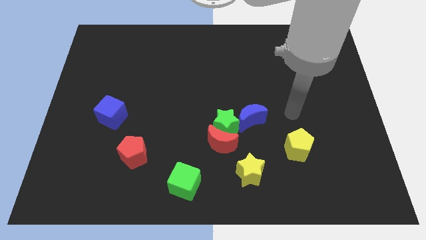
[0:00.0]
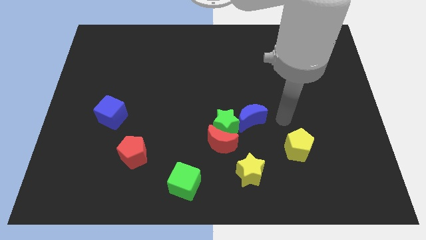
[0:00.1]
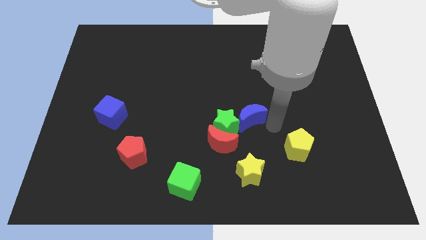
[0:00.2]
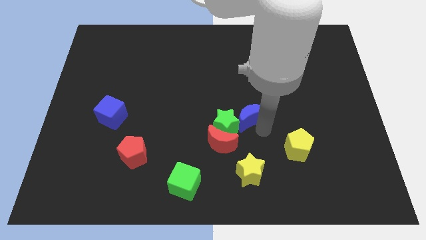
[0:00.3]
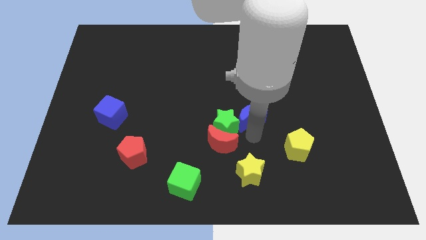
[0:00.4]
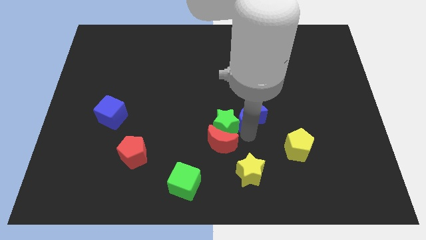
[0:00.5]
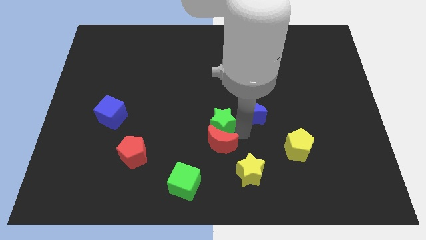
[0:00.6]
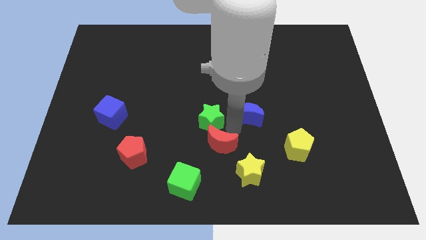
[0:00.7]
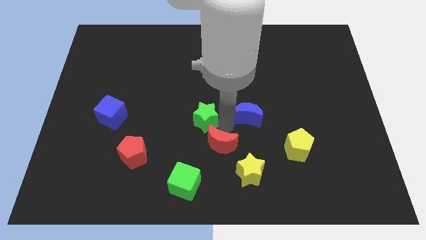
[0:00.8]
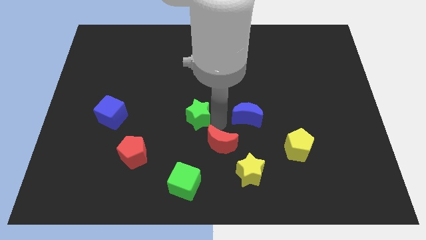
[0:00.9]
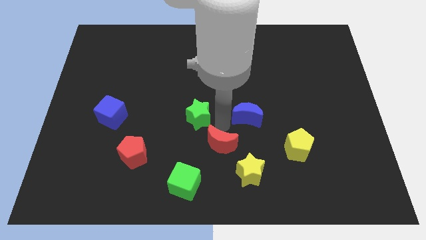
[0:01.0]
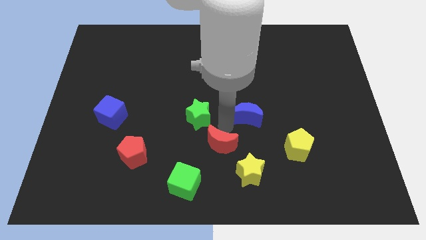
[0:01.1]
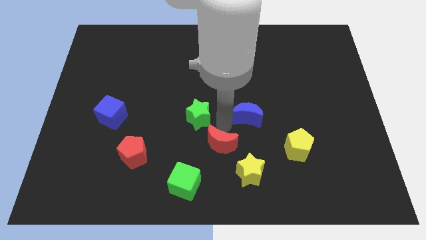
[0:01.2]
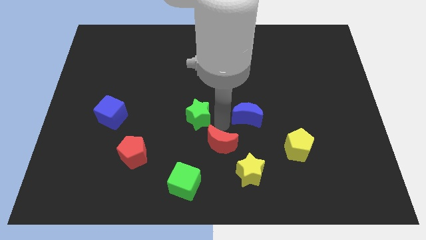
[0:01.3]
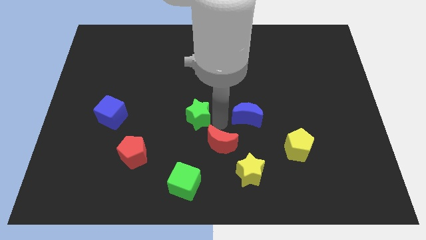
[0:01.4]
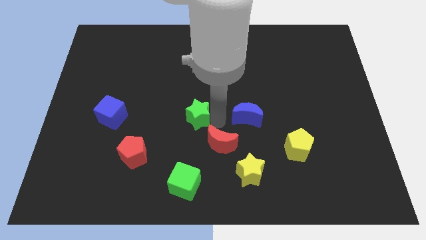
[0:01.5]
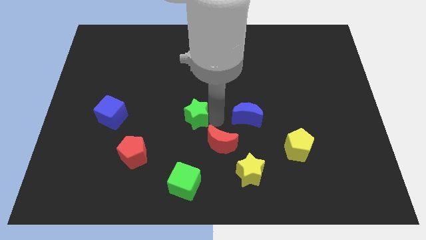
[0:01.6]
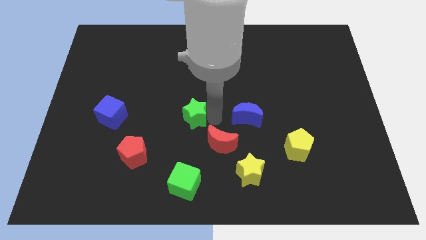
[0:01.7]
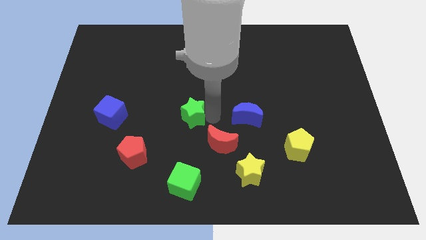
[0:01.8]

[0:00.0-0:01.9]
move the green star away from the red moon and blue moon

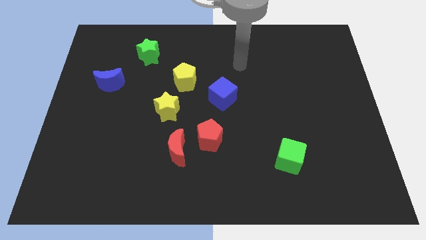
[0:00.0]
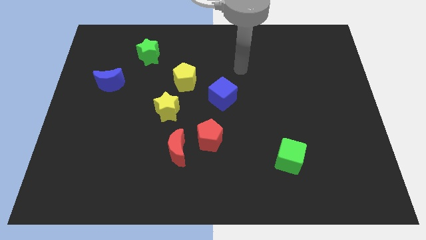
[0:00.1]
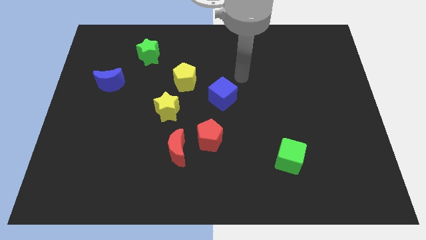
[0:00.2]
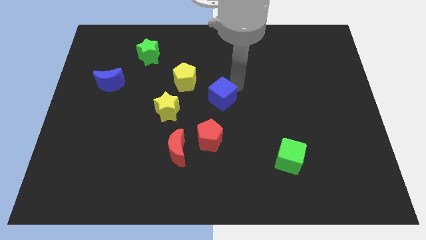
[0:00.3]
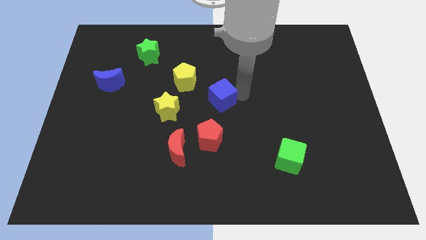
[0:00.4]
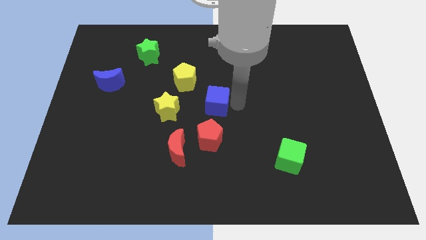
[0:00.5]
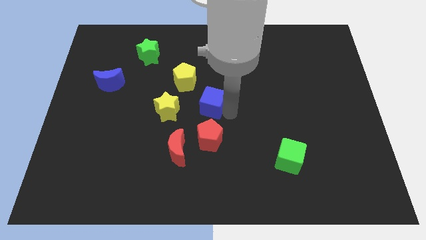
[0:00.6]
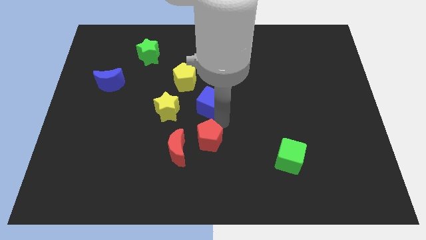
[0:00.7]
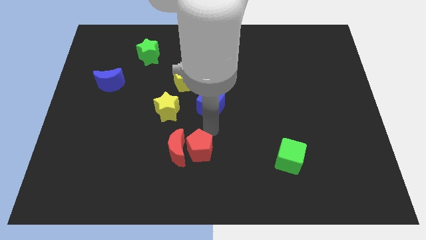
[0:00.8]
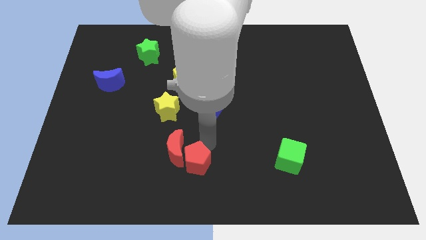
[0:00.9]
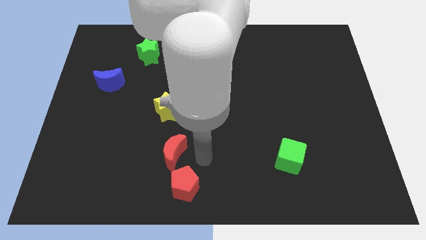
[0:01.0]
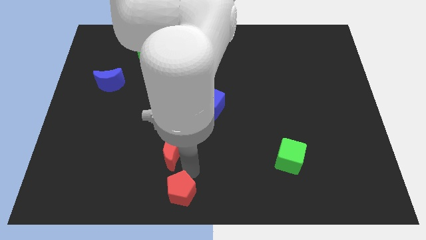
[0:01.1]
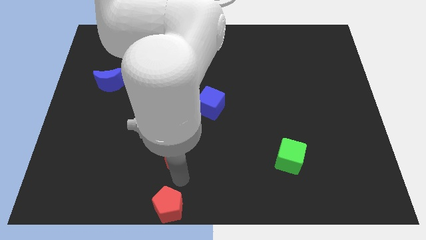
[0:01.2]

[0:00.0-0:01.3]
pull the red moon apart from the red pentagon

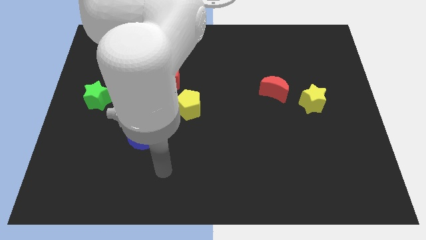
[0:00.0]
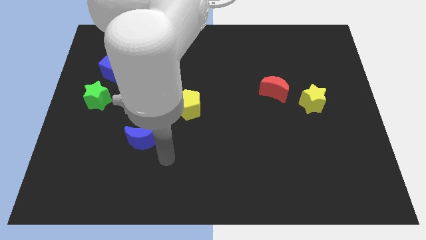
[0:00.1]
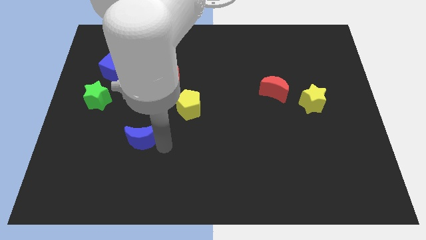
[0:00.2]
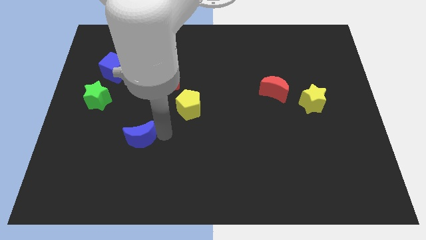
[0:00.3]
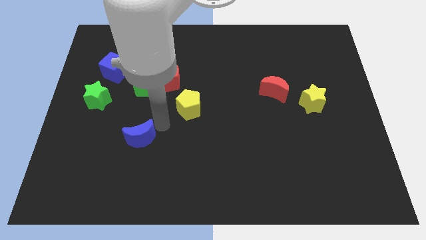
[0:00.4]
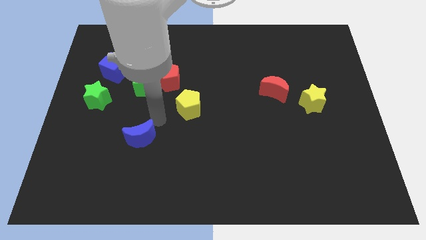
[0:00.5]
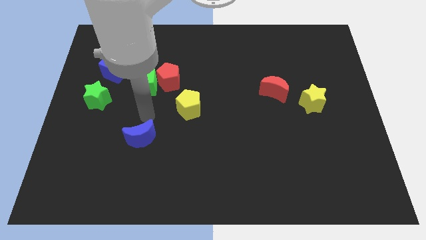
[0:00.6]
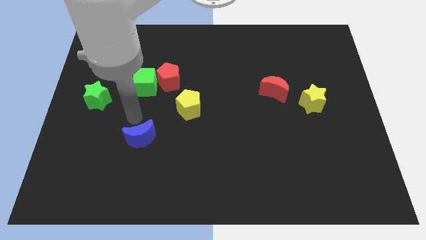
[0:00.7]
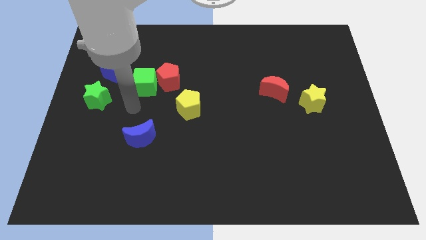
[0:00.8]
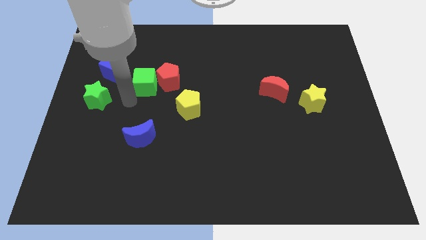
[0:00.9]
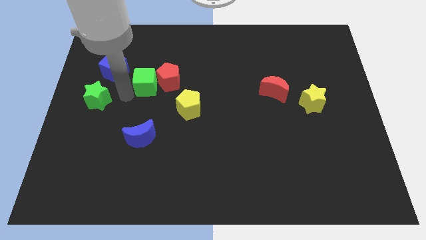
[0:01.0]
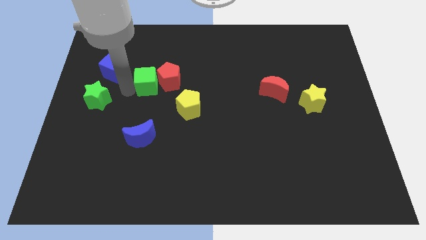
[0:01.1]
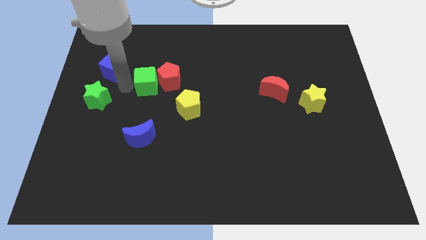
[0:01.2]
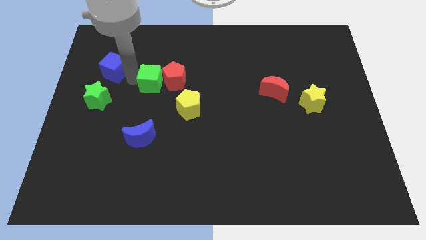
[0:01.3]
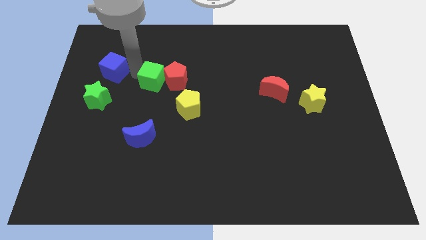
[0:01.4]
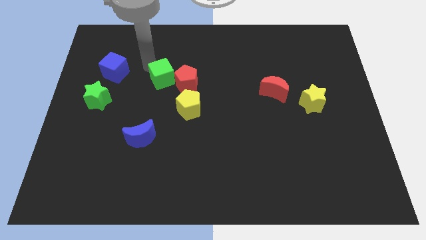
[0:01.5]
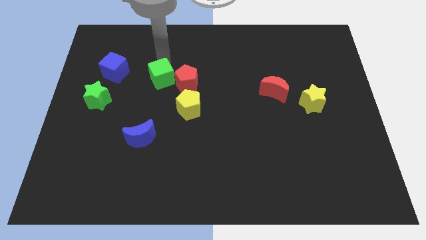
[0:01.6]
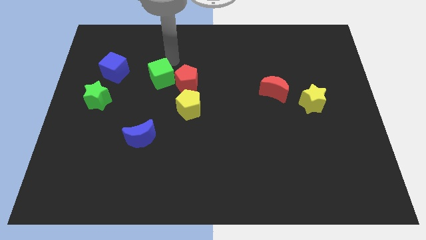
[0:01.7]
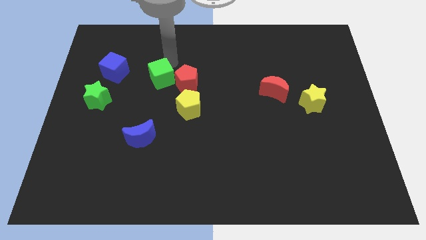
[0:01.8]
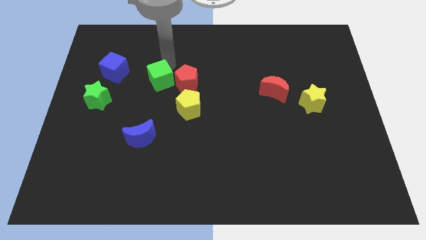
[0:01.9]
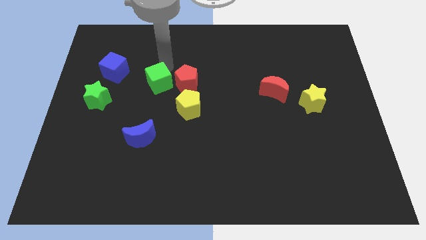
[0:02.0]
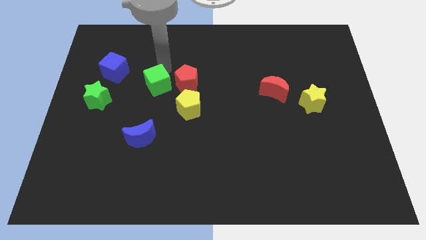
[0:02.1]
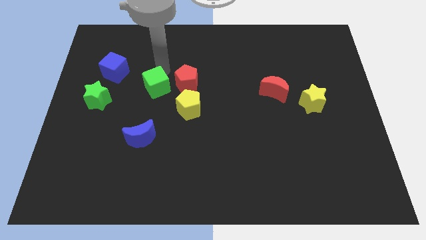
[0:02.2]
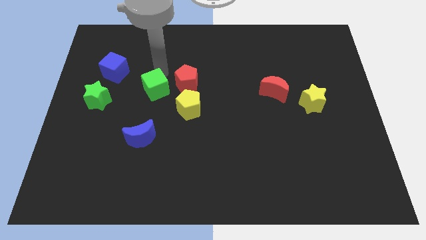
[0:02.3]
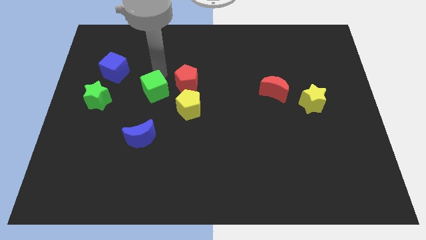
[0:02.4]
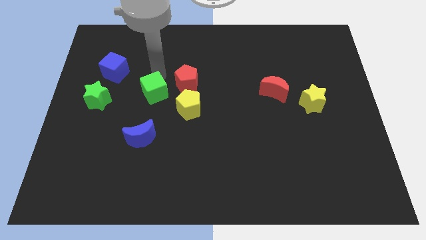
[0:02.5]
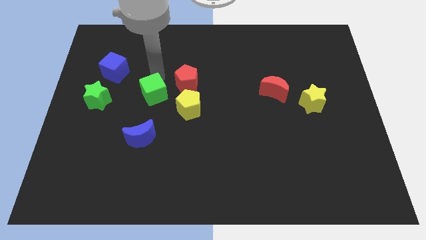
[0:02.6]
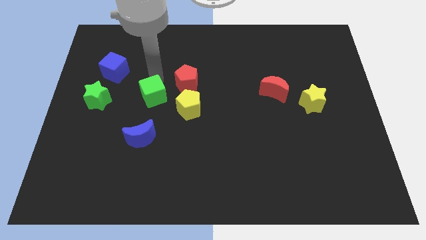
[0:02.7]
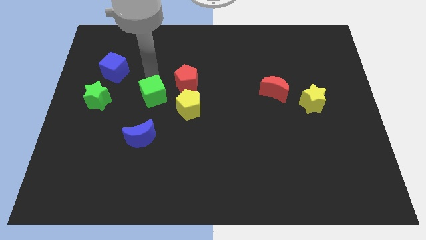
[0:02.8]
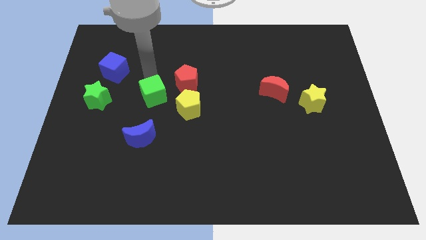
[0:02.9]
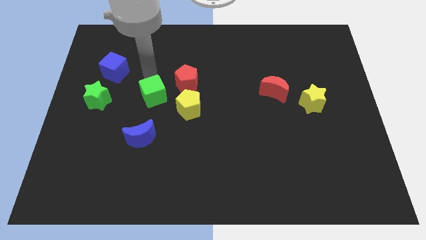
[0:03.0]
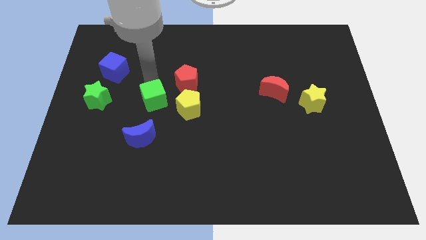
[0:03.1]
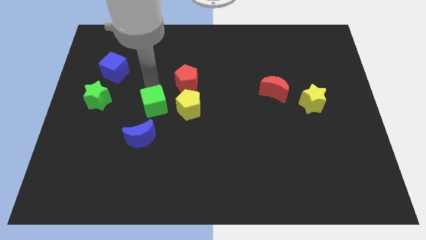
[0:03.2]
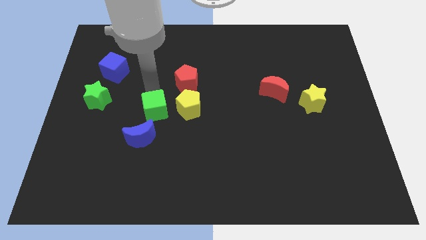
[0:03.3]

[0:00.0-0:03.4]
pull the green cube apart from the red pentagon and blue cube

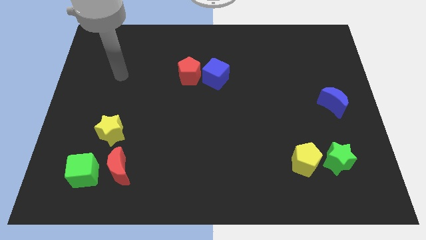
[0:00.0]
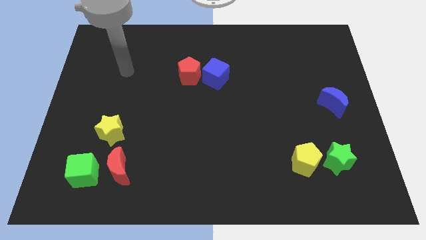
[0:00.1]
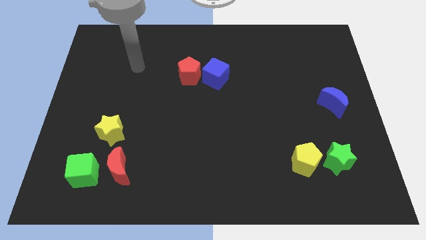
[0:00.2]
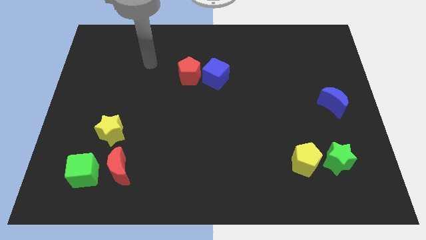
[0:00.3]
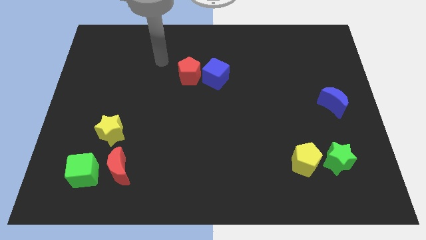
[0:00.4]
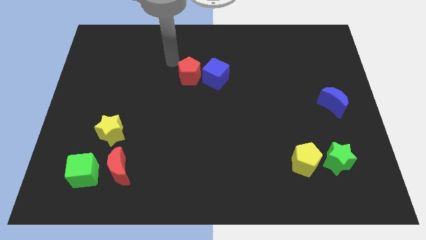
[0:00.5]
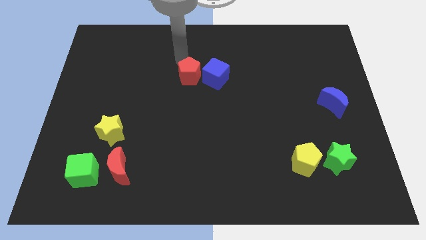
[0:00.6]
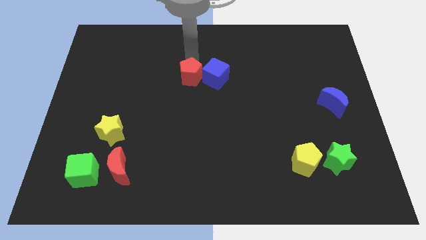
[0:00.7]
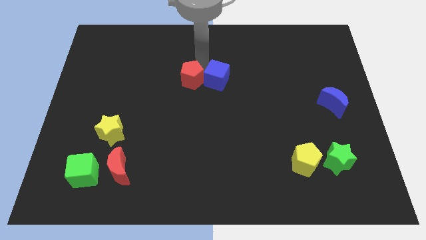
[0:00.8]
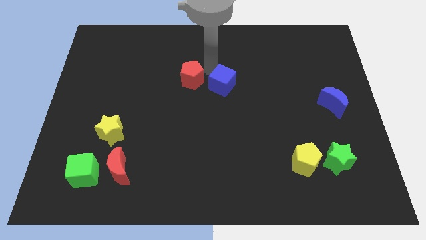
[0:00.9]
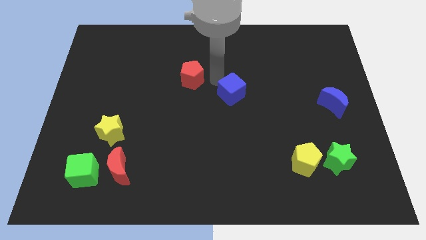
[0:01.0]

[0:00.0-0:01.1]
pull the red pentagon apart from the blue cube

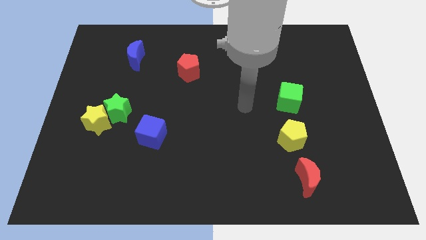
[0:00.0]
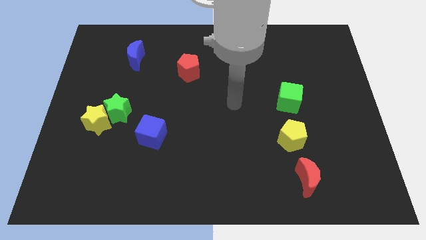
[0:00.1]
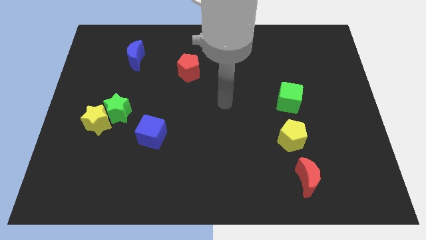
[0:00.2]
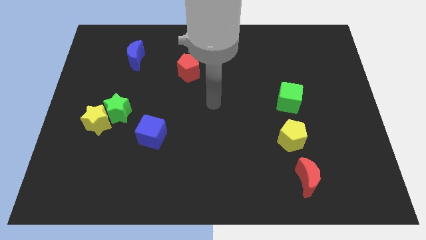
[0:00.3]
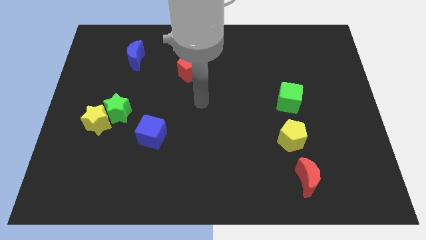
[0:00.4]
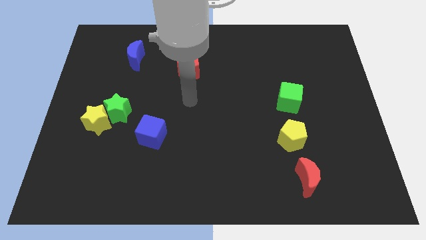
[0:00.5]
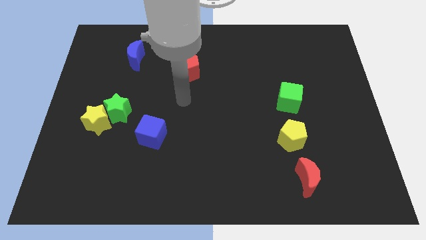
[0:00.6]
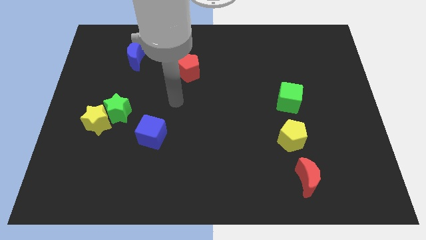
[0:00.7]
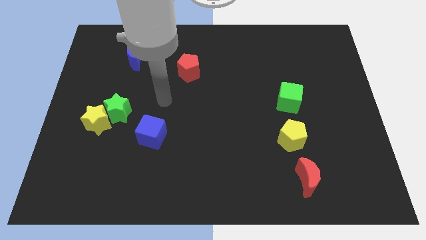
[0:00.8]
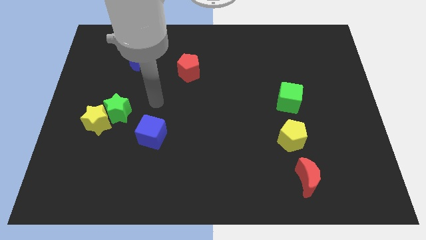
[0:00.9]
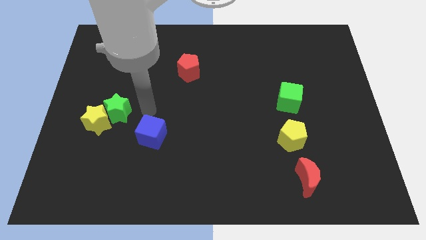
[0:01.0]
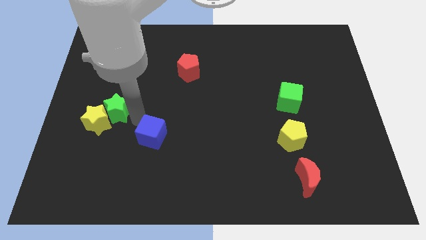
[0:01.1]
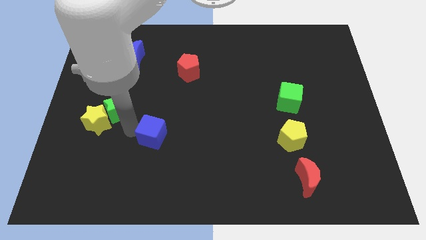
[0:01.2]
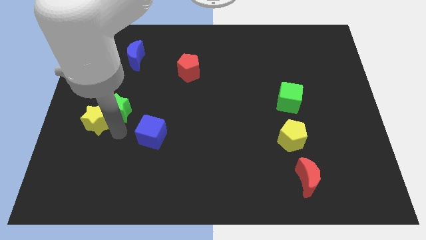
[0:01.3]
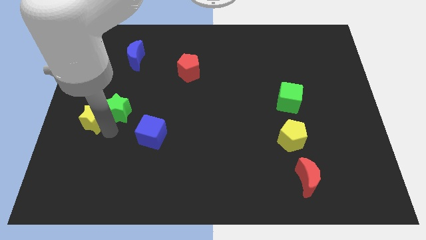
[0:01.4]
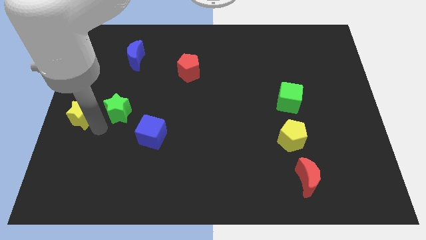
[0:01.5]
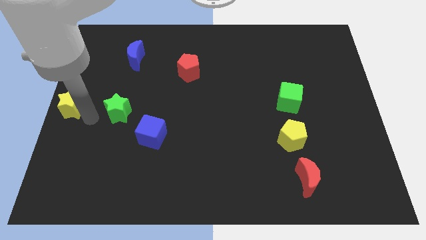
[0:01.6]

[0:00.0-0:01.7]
move the green star away from the yellow star
